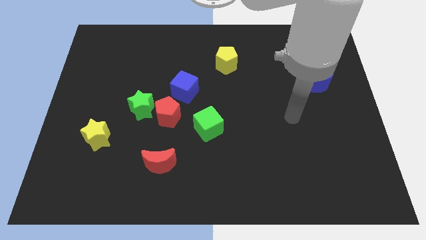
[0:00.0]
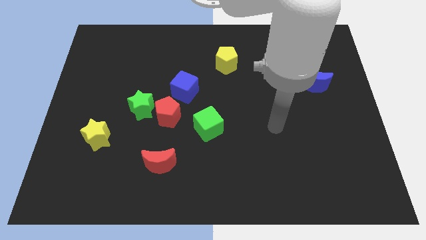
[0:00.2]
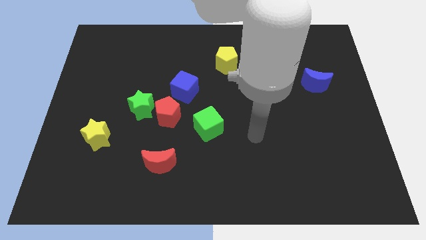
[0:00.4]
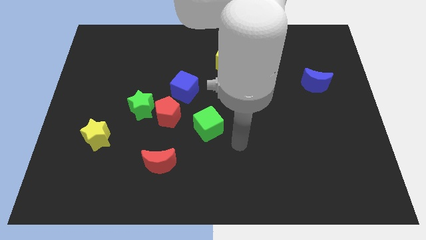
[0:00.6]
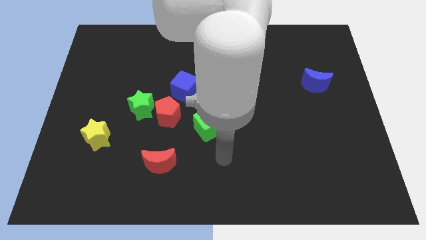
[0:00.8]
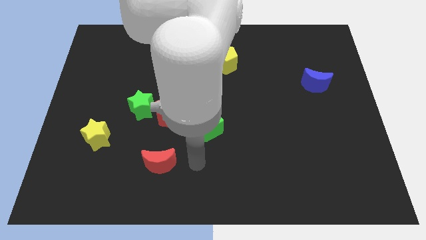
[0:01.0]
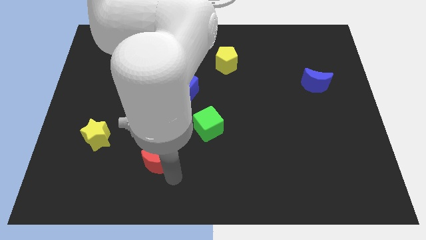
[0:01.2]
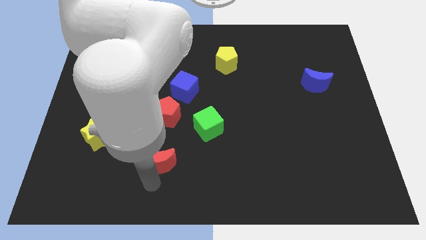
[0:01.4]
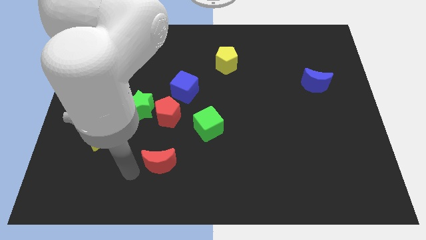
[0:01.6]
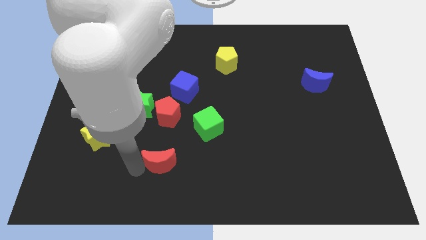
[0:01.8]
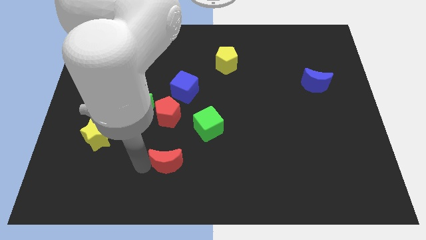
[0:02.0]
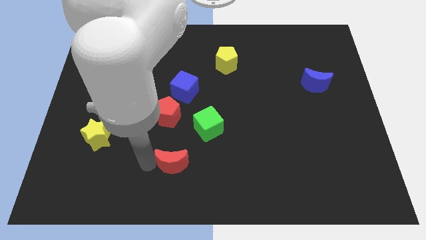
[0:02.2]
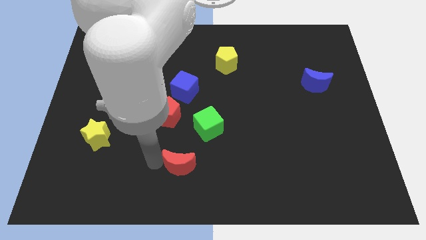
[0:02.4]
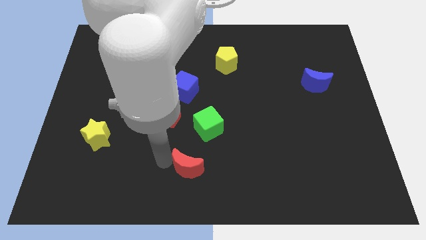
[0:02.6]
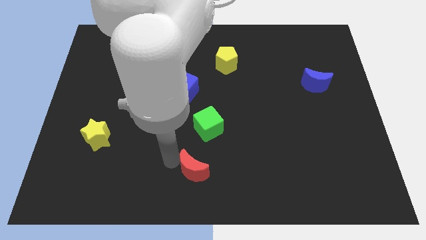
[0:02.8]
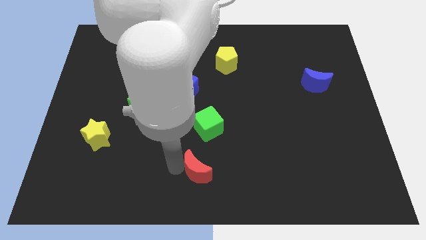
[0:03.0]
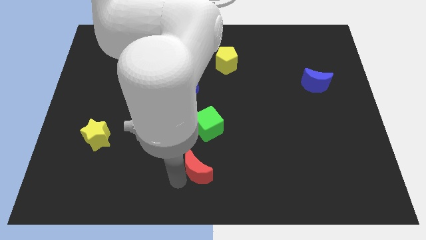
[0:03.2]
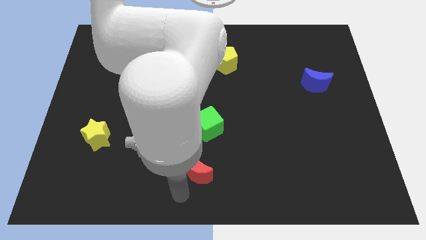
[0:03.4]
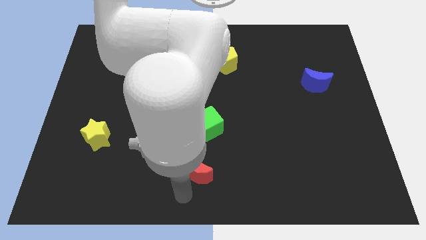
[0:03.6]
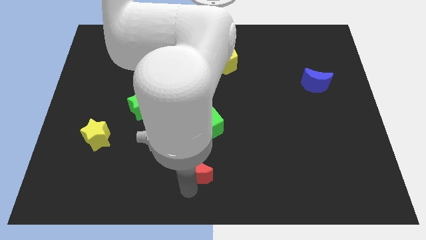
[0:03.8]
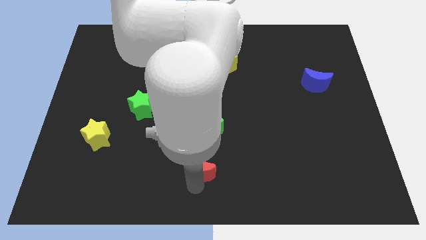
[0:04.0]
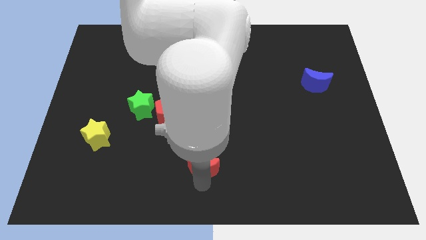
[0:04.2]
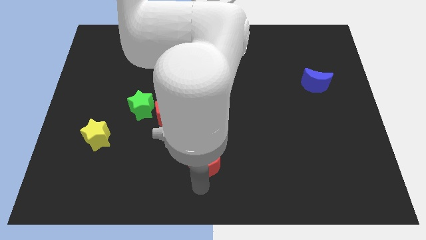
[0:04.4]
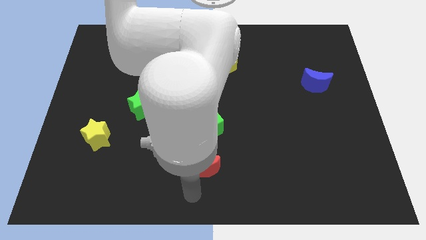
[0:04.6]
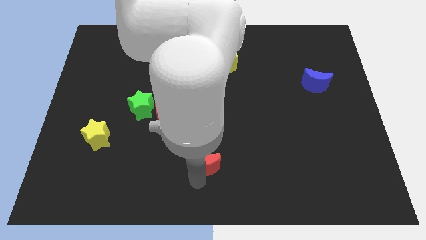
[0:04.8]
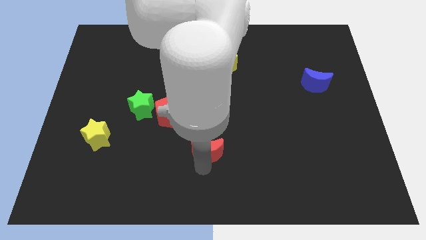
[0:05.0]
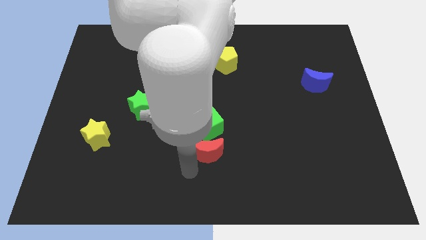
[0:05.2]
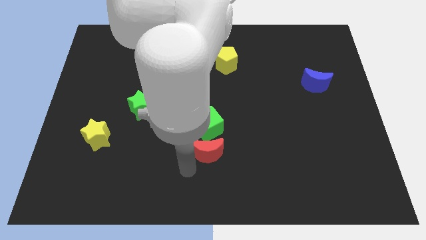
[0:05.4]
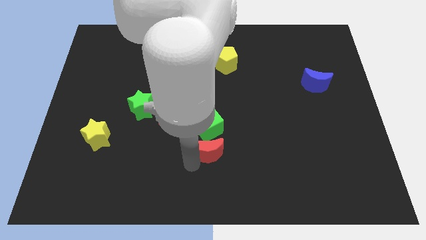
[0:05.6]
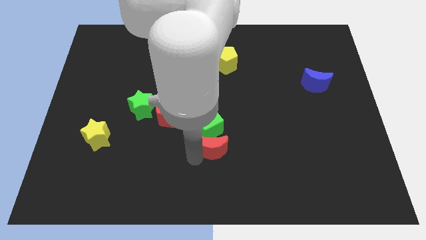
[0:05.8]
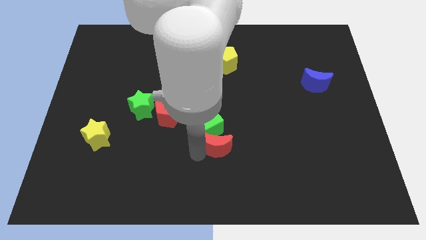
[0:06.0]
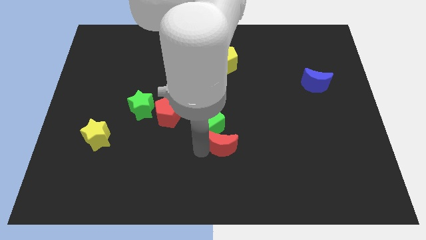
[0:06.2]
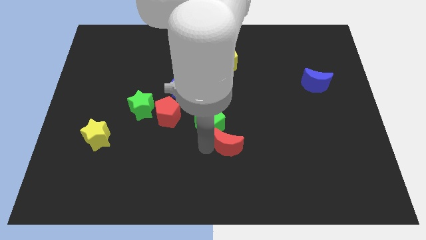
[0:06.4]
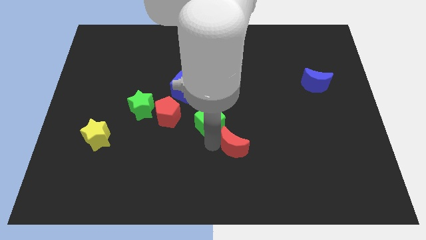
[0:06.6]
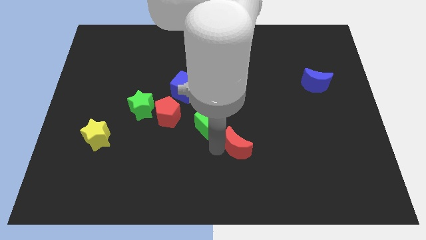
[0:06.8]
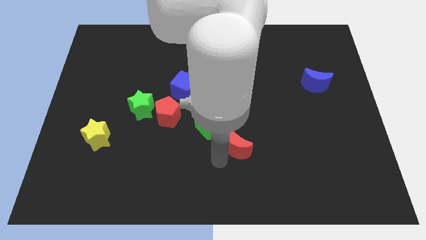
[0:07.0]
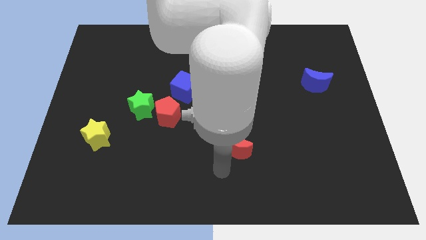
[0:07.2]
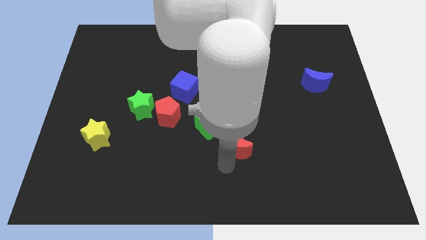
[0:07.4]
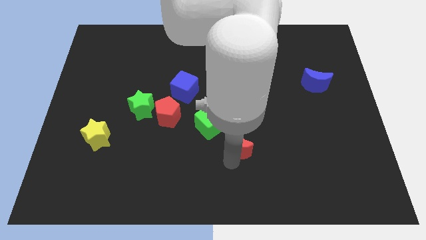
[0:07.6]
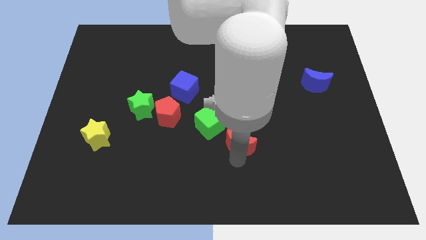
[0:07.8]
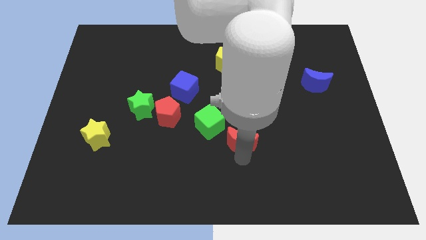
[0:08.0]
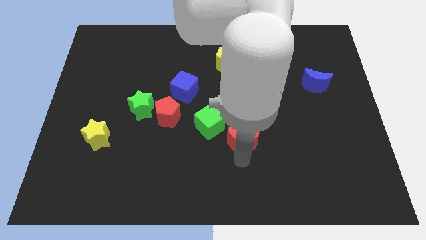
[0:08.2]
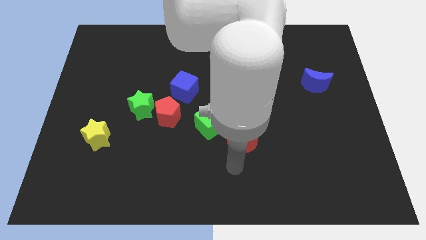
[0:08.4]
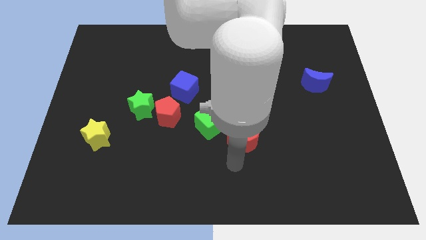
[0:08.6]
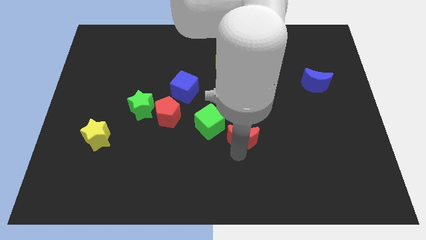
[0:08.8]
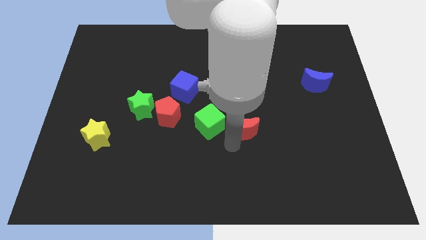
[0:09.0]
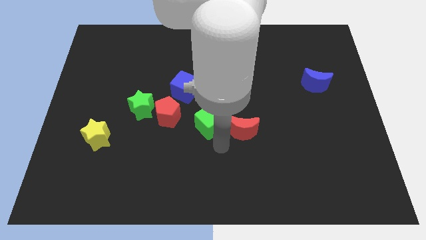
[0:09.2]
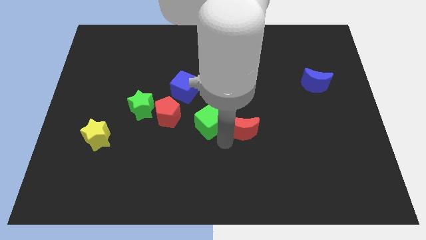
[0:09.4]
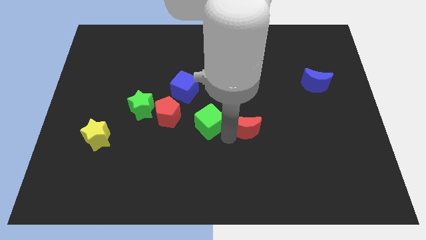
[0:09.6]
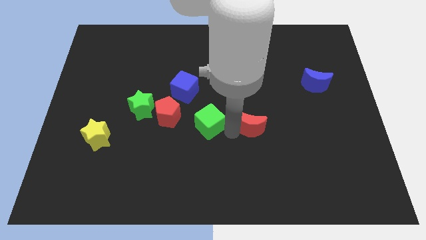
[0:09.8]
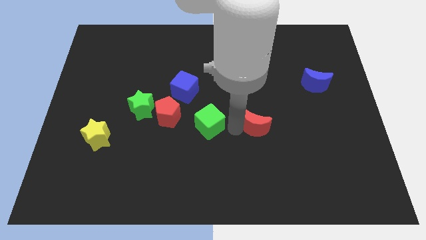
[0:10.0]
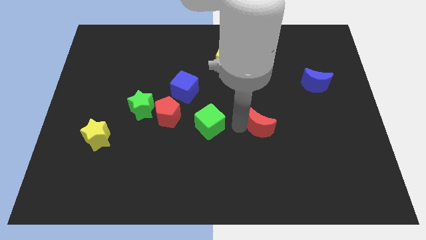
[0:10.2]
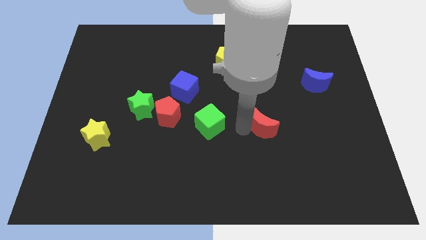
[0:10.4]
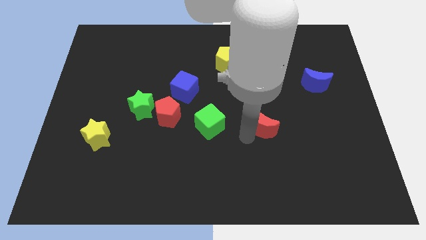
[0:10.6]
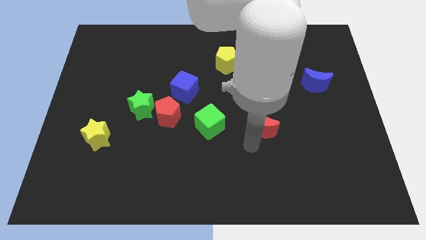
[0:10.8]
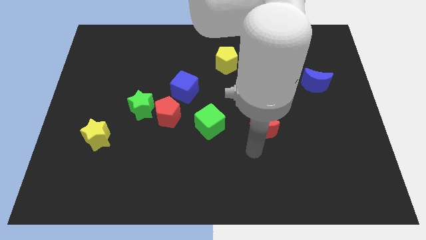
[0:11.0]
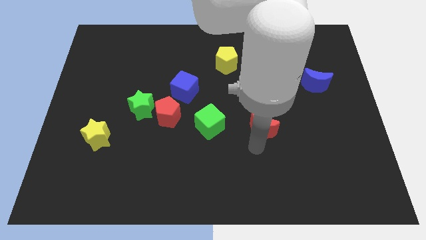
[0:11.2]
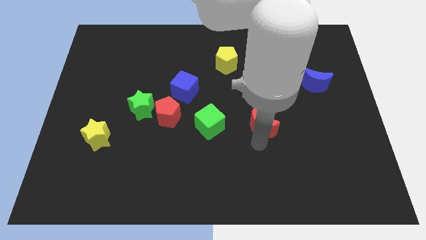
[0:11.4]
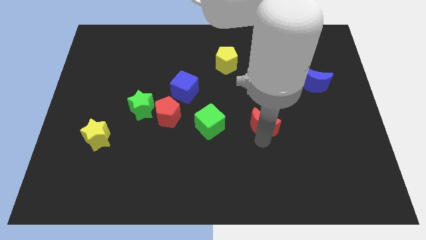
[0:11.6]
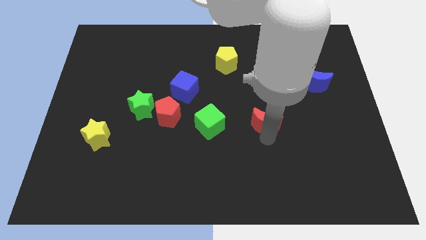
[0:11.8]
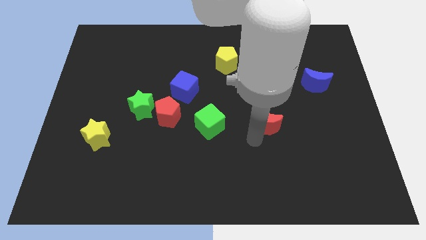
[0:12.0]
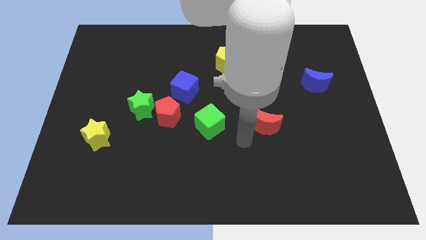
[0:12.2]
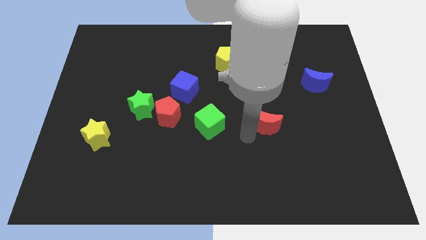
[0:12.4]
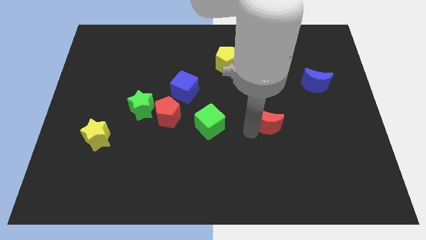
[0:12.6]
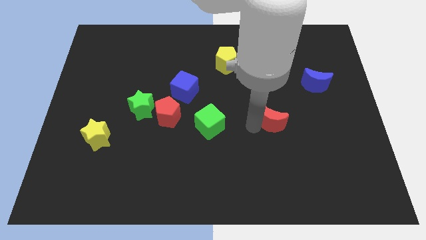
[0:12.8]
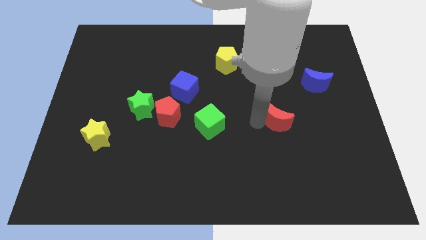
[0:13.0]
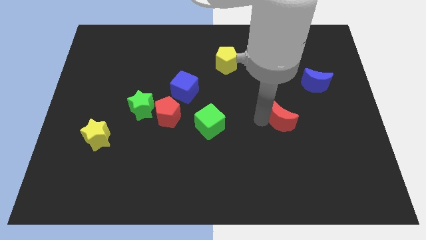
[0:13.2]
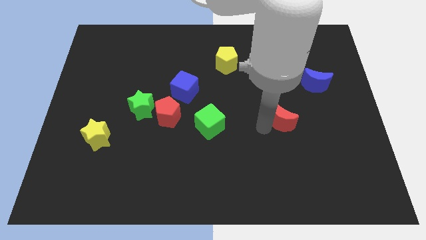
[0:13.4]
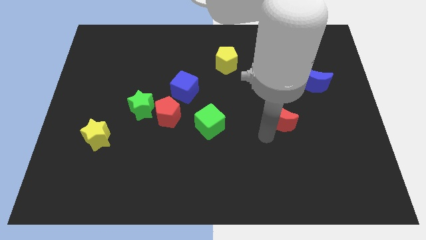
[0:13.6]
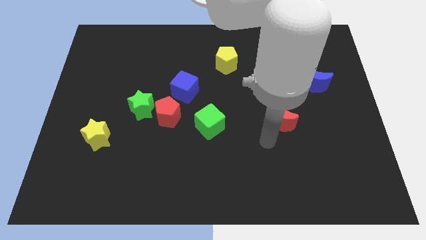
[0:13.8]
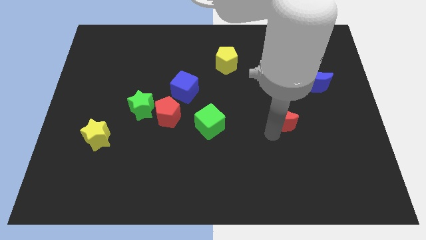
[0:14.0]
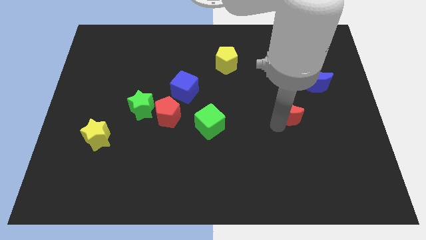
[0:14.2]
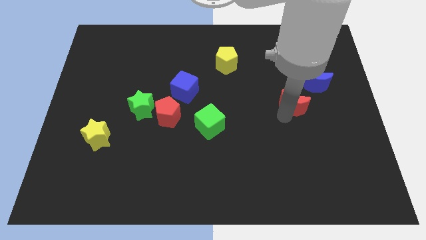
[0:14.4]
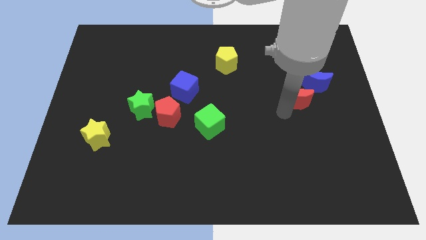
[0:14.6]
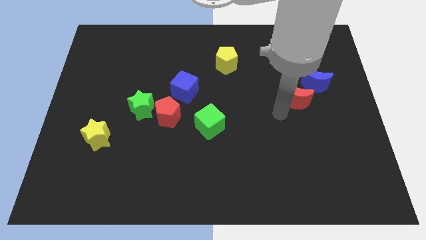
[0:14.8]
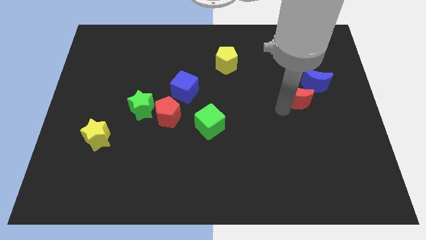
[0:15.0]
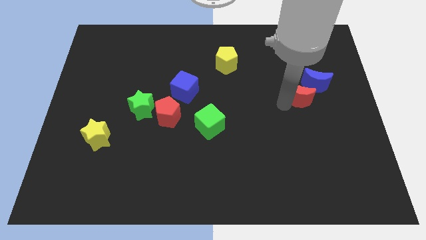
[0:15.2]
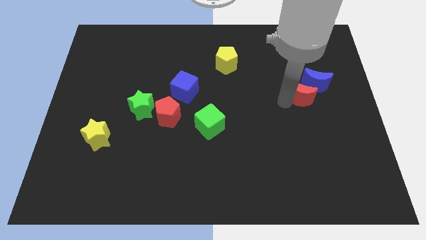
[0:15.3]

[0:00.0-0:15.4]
push the red moon close to the blue moon
